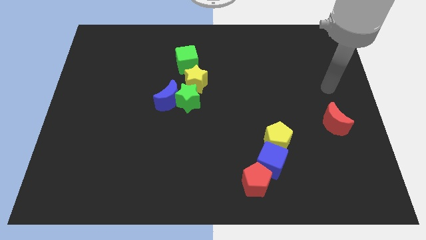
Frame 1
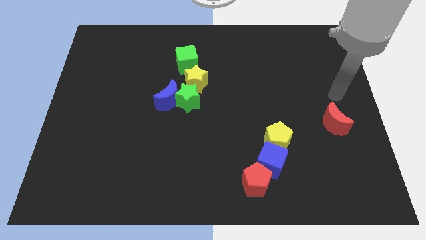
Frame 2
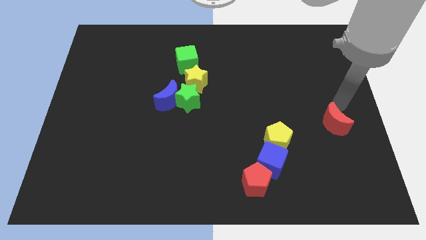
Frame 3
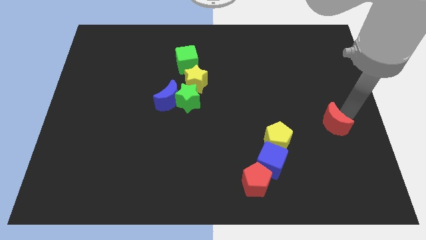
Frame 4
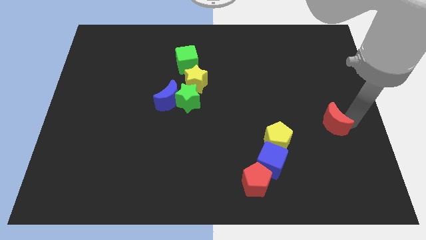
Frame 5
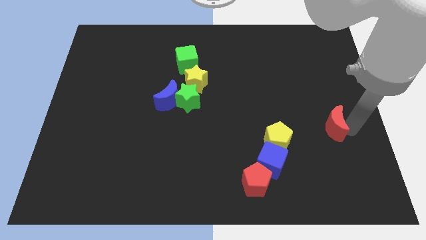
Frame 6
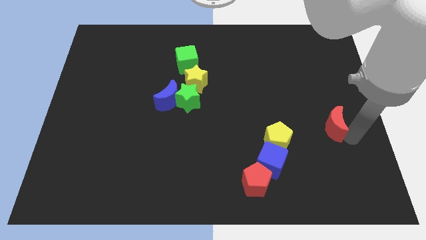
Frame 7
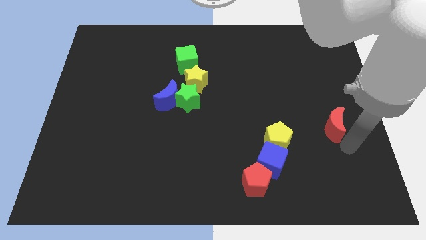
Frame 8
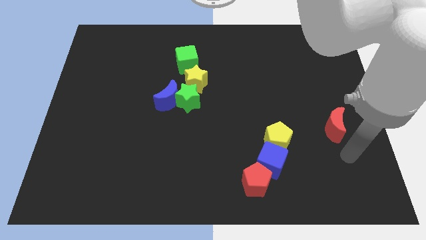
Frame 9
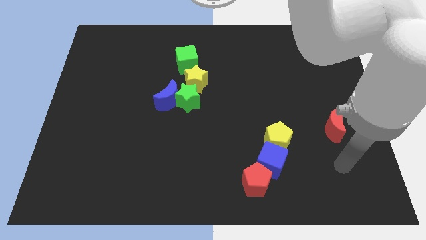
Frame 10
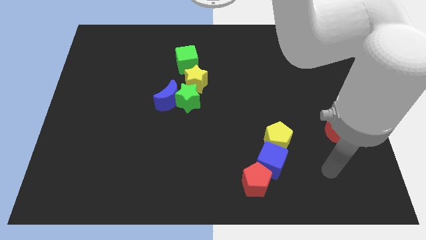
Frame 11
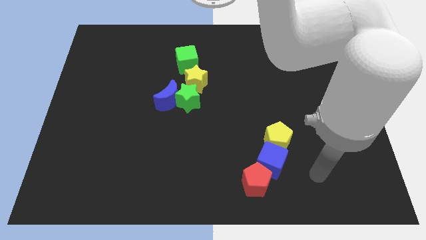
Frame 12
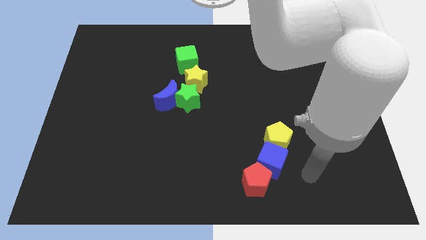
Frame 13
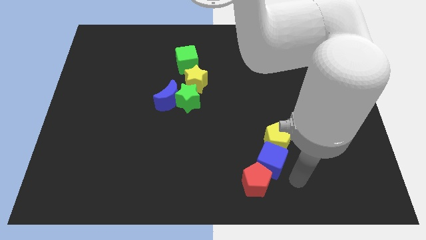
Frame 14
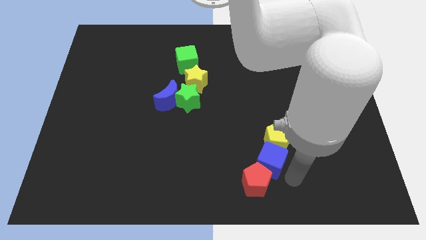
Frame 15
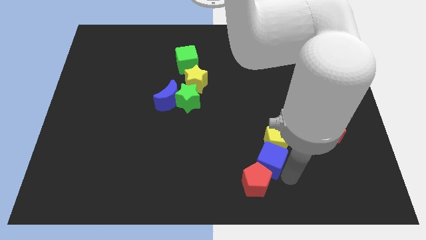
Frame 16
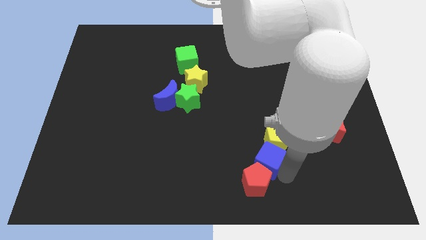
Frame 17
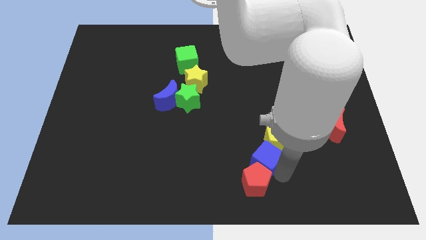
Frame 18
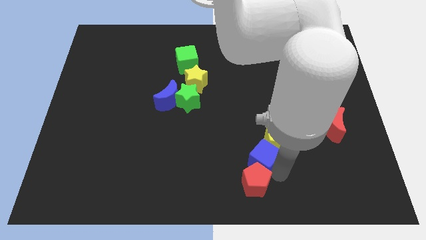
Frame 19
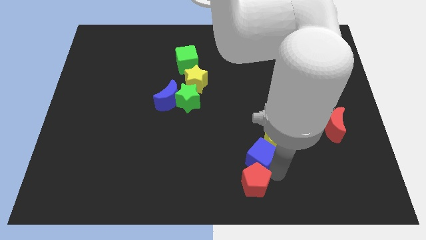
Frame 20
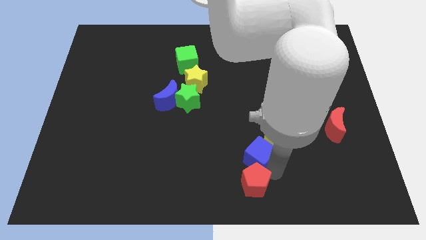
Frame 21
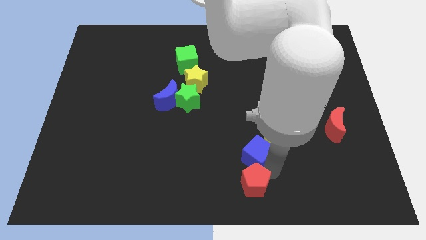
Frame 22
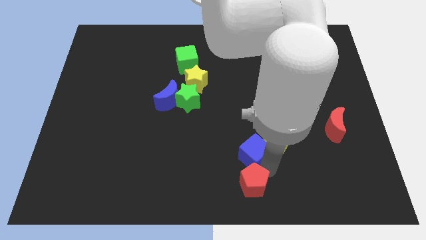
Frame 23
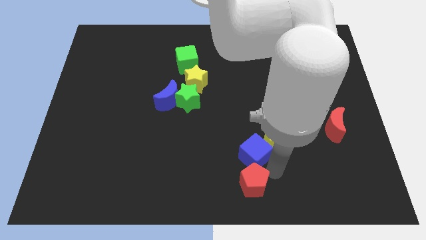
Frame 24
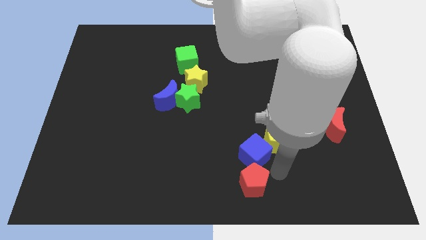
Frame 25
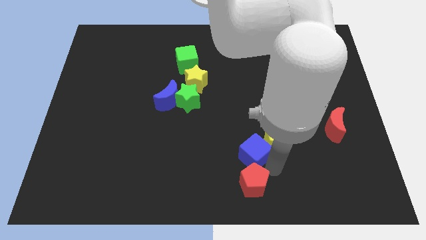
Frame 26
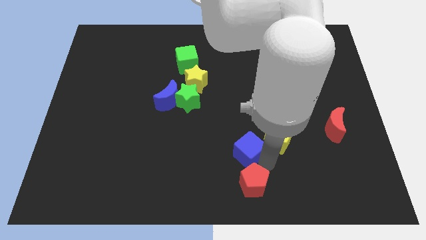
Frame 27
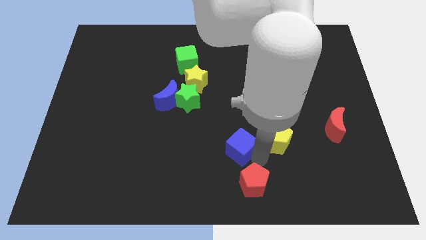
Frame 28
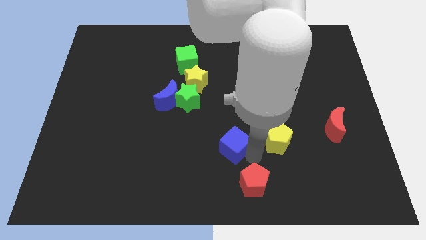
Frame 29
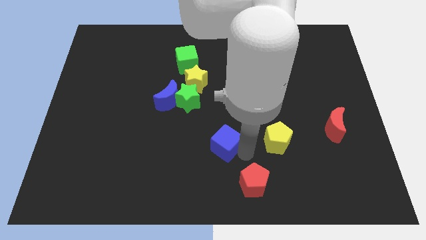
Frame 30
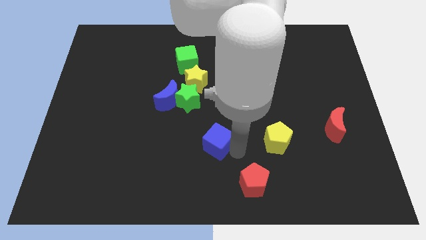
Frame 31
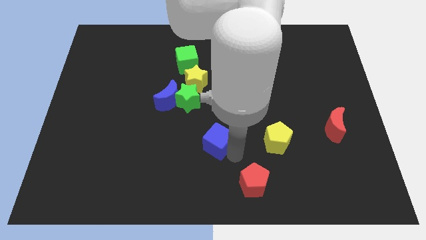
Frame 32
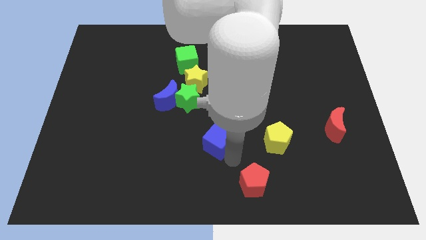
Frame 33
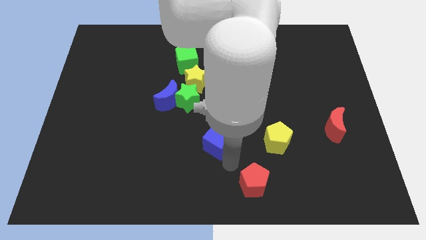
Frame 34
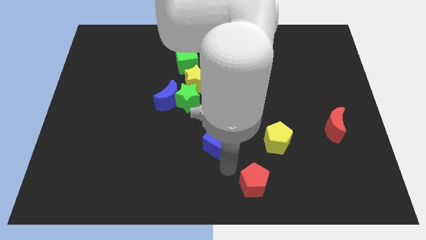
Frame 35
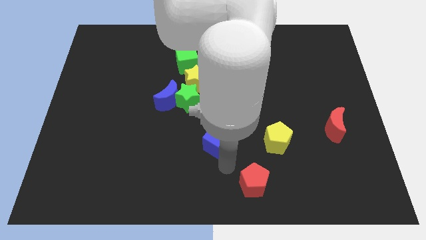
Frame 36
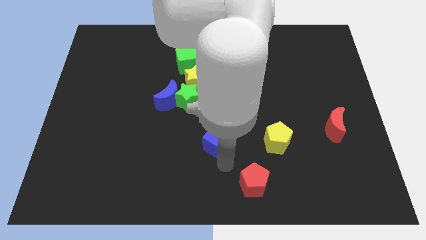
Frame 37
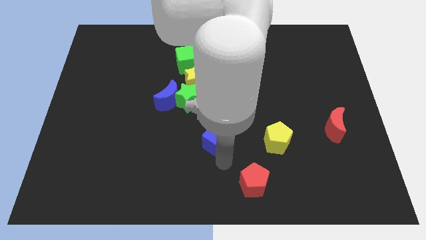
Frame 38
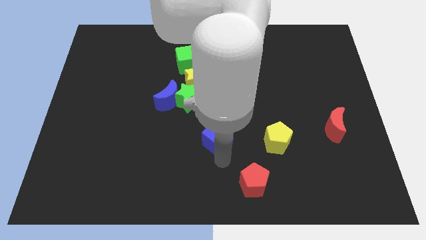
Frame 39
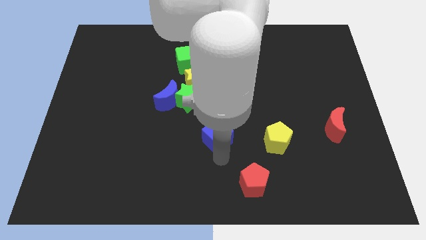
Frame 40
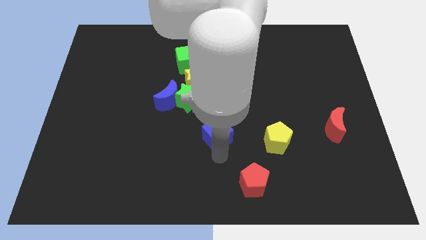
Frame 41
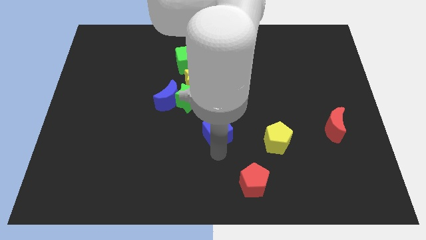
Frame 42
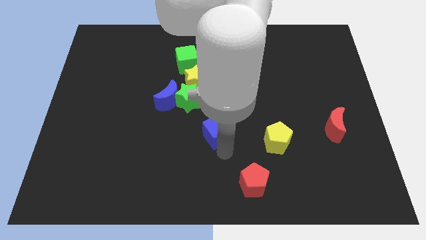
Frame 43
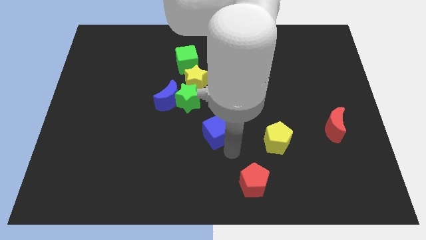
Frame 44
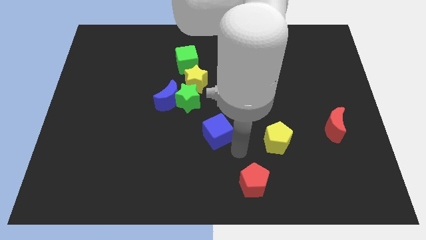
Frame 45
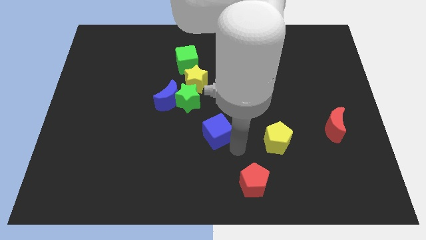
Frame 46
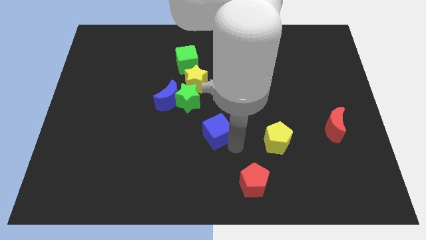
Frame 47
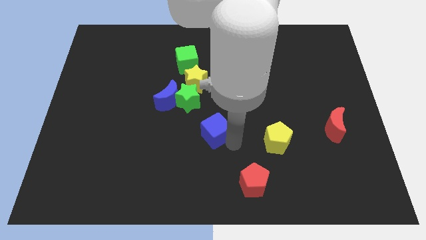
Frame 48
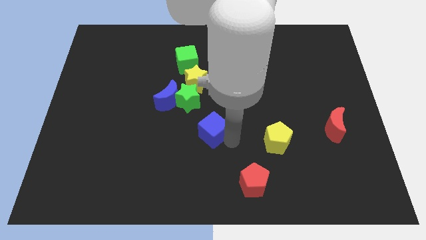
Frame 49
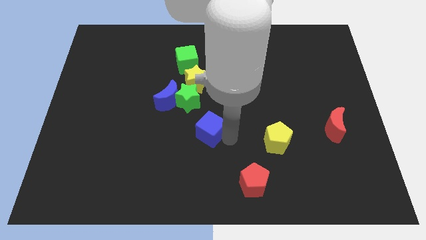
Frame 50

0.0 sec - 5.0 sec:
move the blue cube below the yellow star

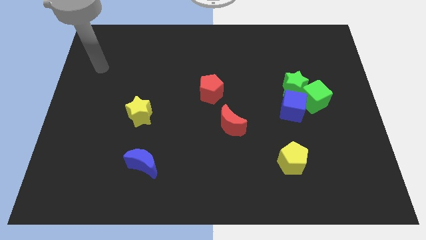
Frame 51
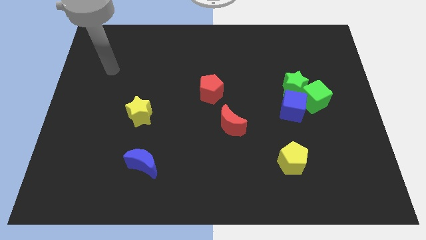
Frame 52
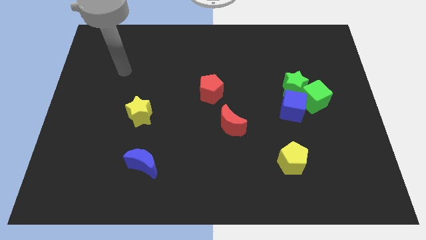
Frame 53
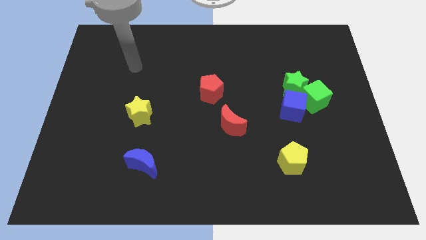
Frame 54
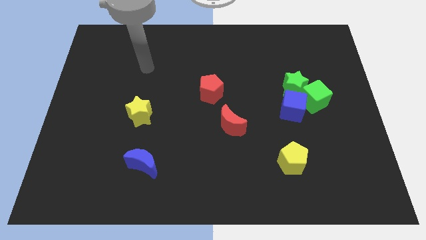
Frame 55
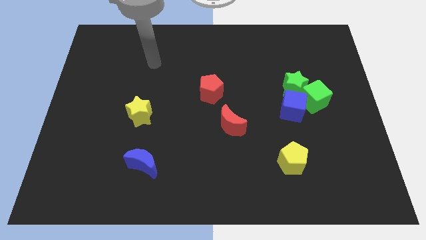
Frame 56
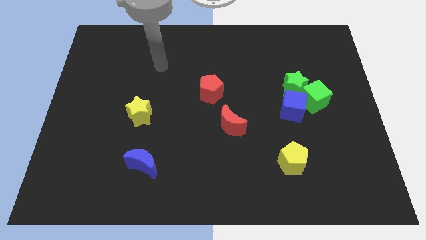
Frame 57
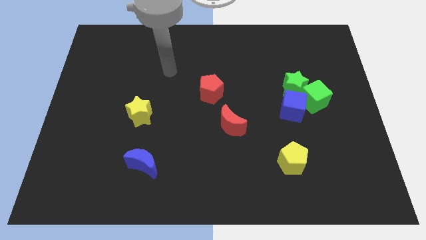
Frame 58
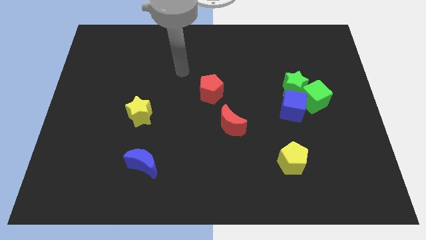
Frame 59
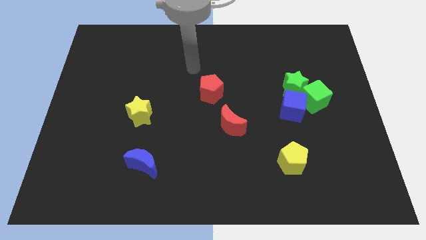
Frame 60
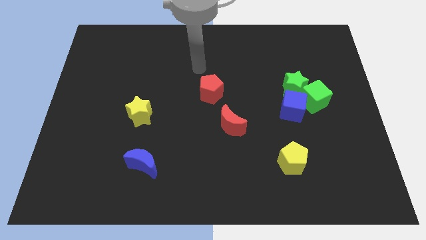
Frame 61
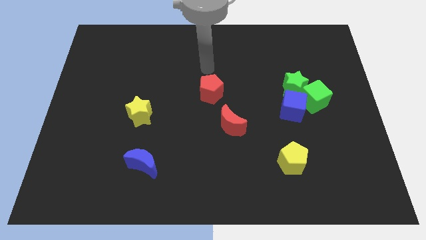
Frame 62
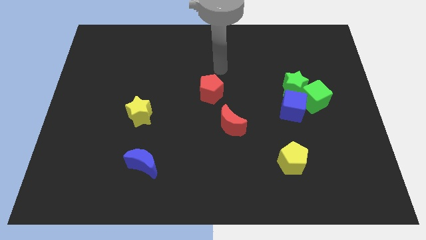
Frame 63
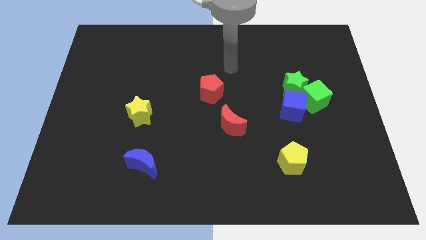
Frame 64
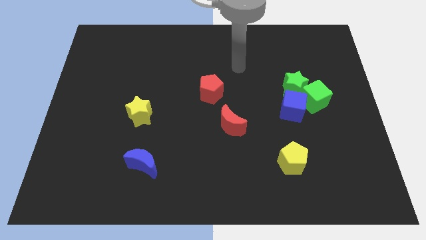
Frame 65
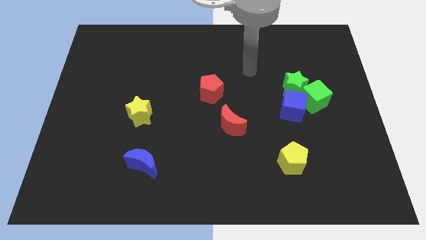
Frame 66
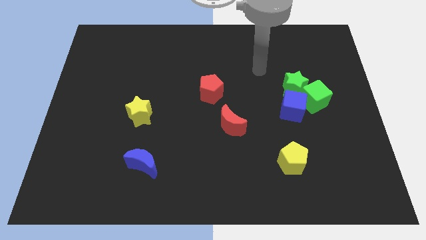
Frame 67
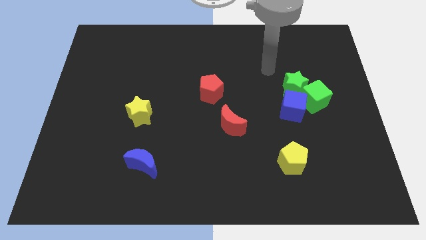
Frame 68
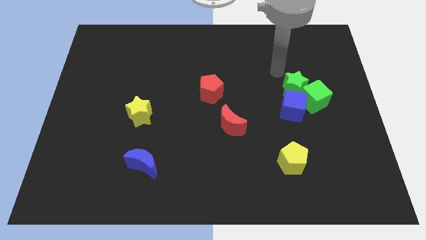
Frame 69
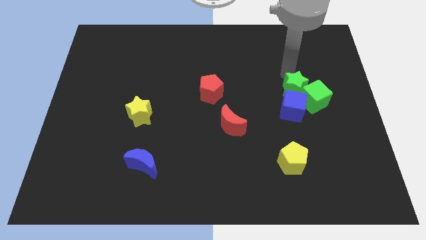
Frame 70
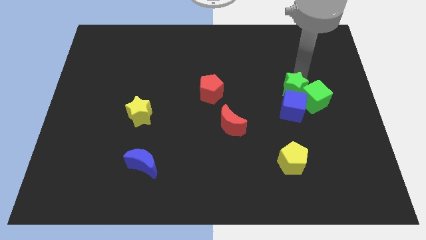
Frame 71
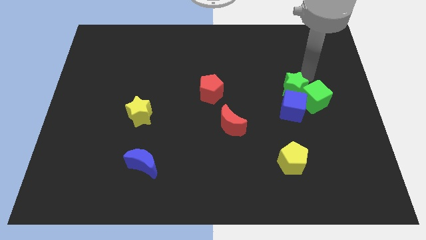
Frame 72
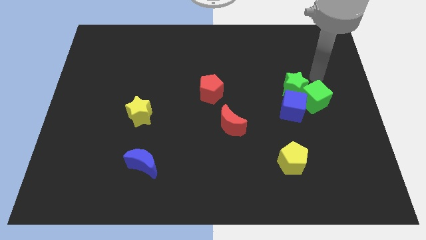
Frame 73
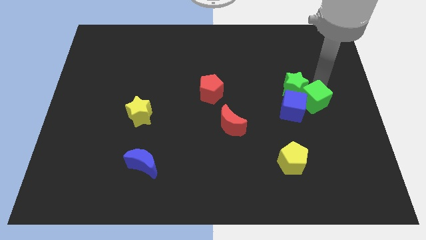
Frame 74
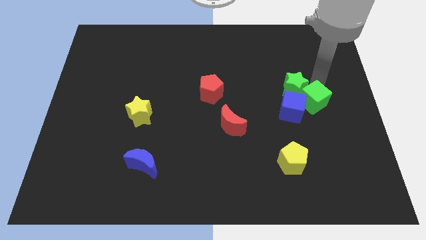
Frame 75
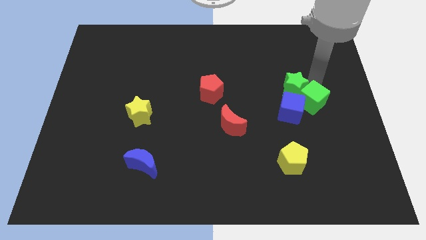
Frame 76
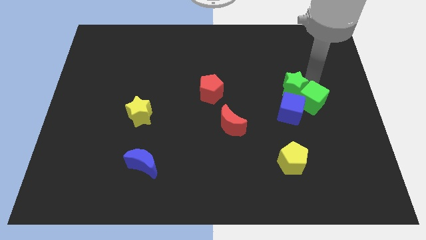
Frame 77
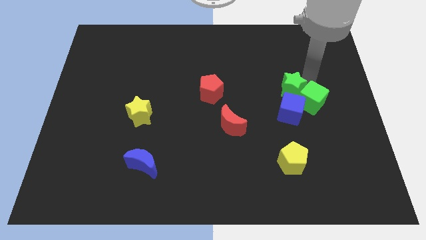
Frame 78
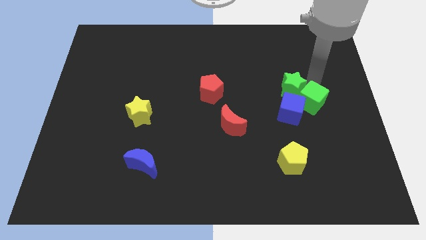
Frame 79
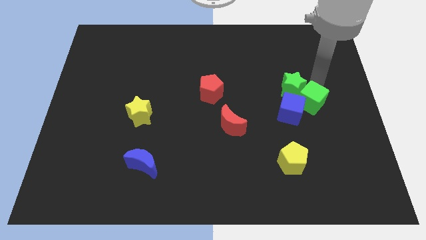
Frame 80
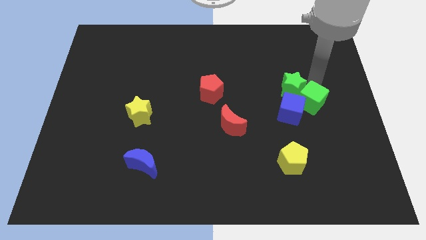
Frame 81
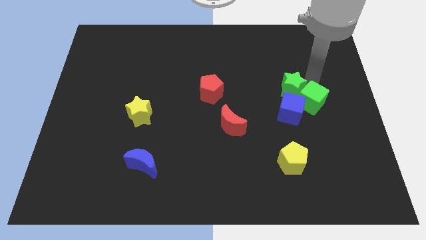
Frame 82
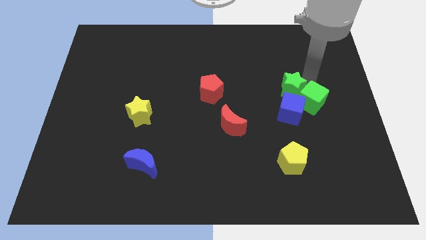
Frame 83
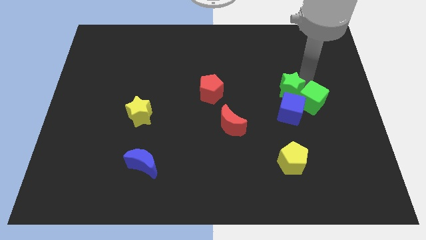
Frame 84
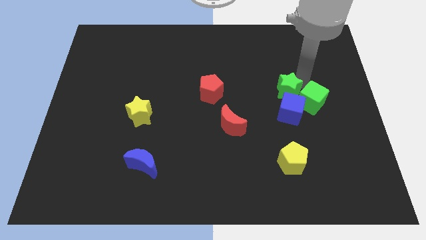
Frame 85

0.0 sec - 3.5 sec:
move the green star to the top left side of the blue cube
